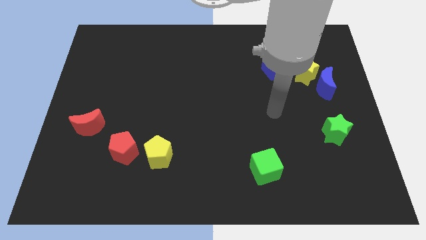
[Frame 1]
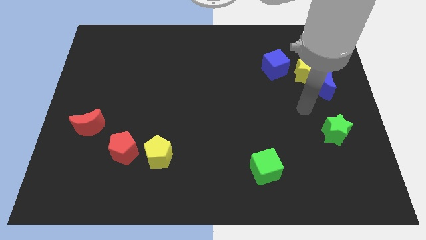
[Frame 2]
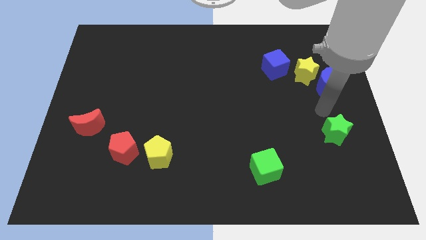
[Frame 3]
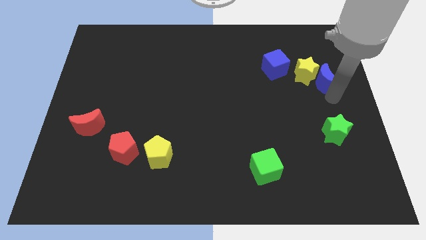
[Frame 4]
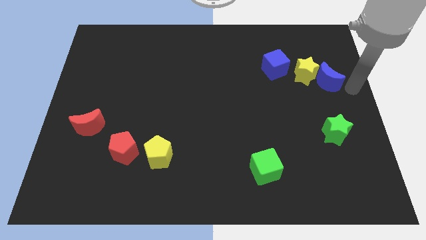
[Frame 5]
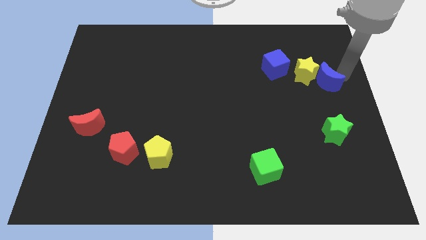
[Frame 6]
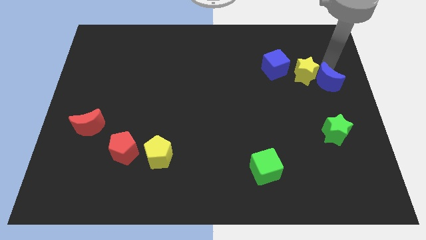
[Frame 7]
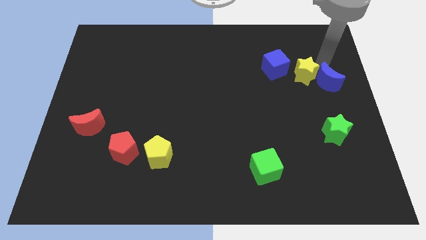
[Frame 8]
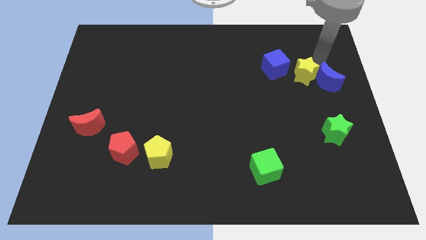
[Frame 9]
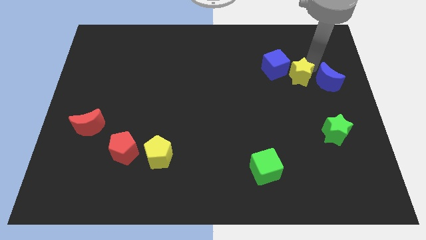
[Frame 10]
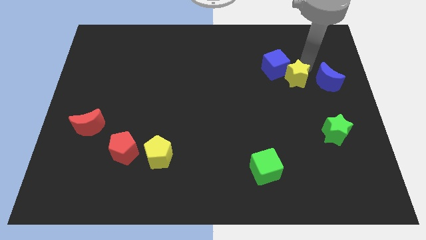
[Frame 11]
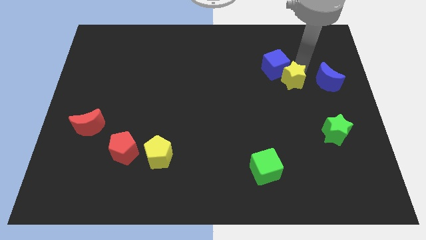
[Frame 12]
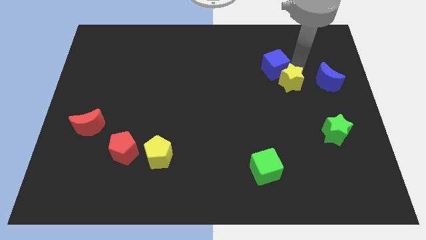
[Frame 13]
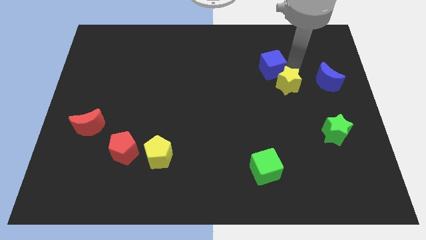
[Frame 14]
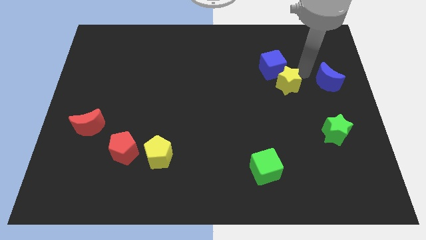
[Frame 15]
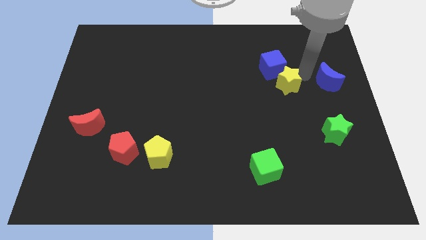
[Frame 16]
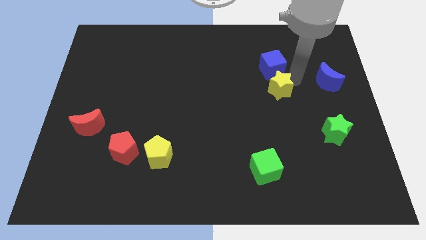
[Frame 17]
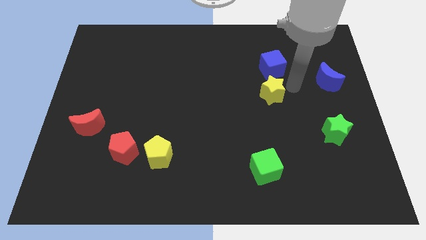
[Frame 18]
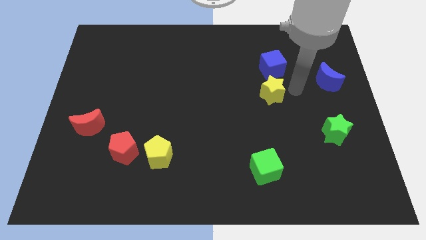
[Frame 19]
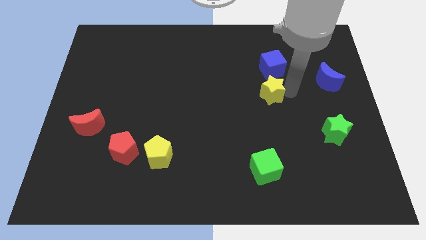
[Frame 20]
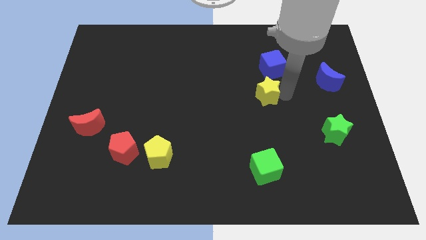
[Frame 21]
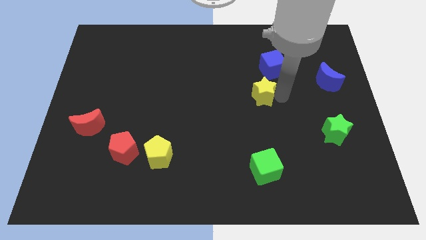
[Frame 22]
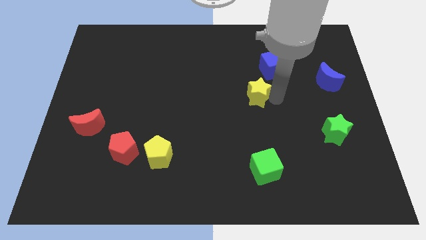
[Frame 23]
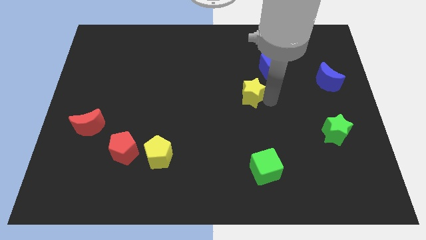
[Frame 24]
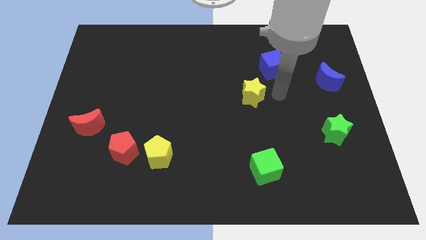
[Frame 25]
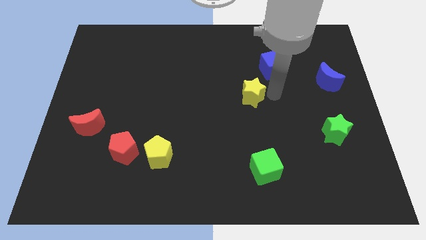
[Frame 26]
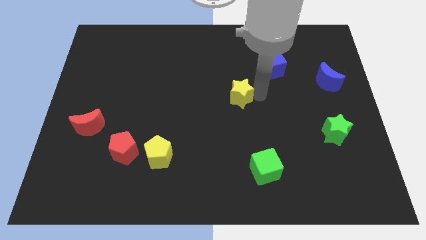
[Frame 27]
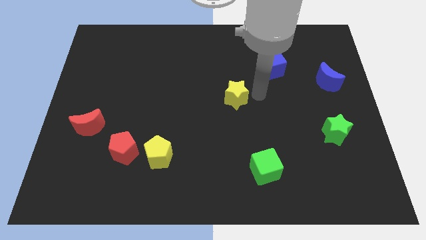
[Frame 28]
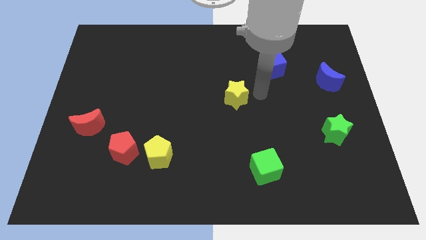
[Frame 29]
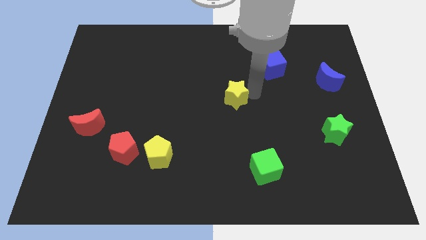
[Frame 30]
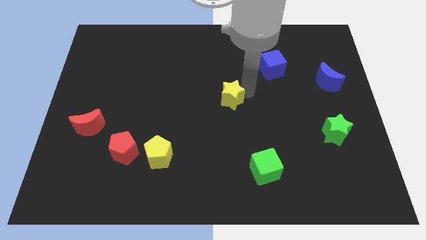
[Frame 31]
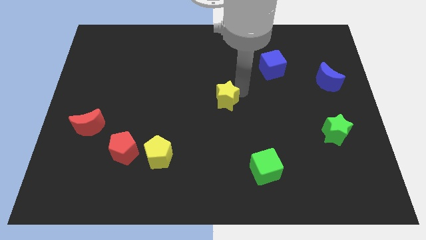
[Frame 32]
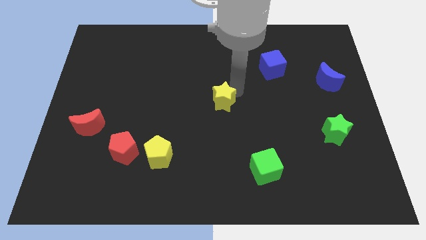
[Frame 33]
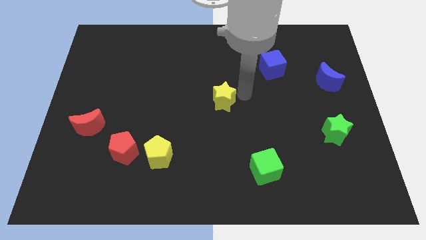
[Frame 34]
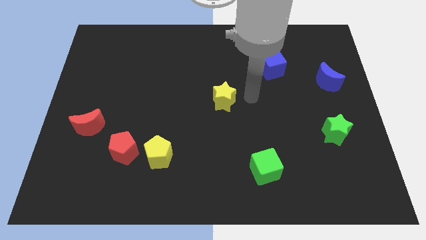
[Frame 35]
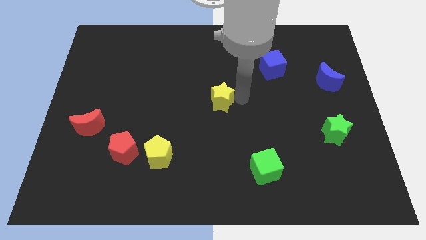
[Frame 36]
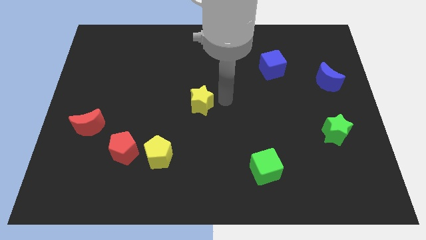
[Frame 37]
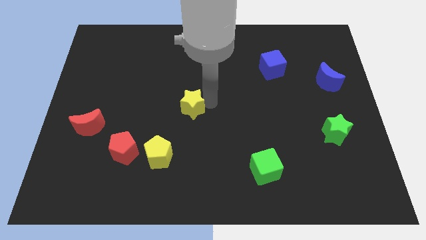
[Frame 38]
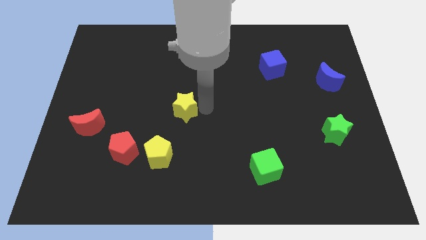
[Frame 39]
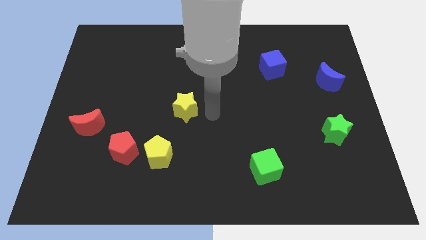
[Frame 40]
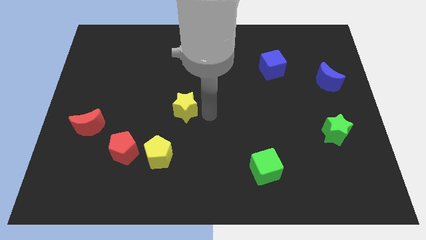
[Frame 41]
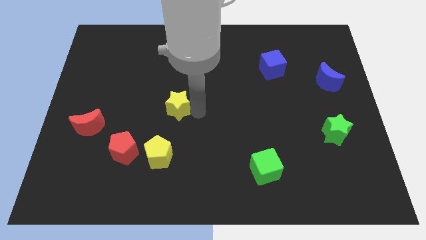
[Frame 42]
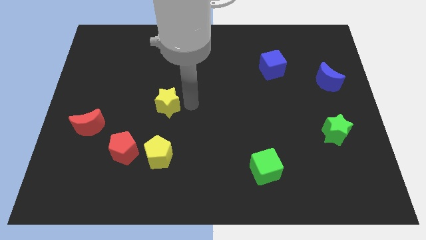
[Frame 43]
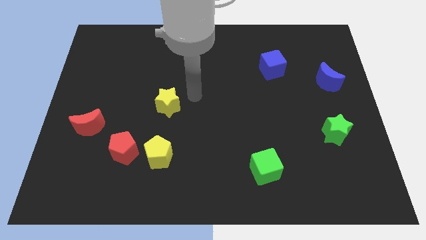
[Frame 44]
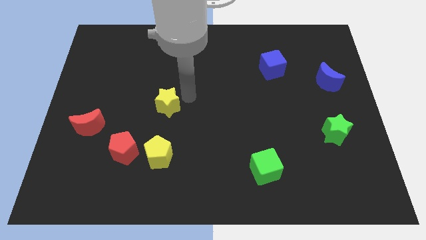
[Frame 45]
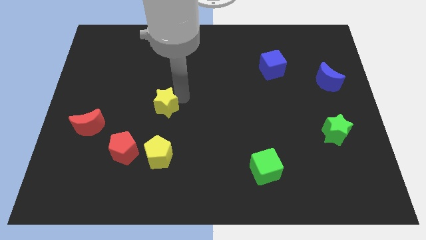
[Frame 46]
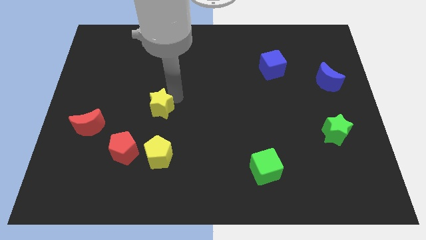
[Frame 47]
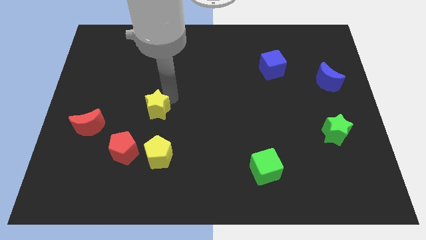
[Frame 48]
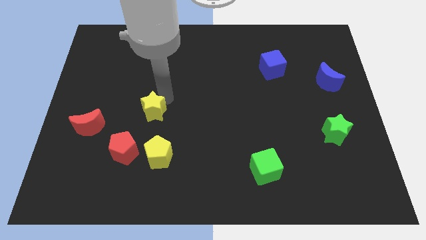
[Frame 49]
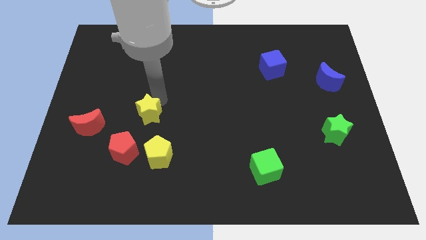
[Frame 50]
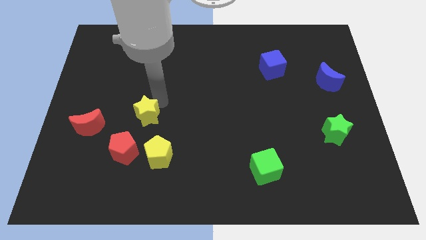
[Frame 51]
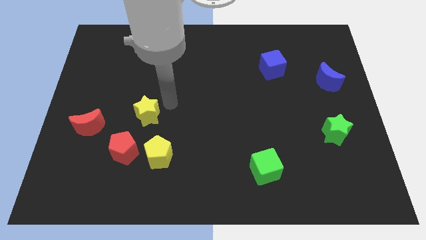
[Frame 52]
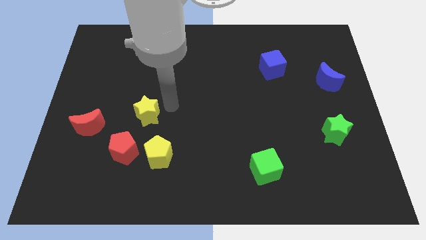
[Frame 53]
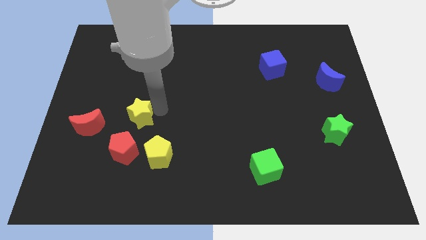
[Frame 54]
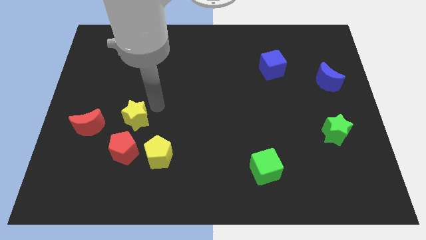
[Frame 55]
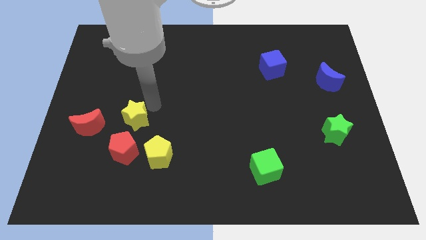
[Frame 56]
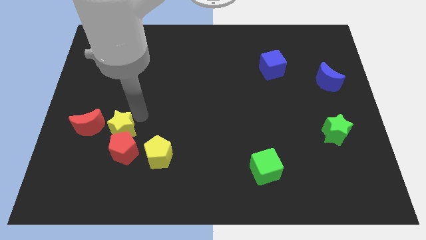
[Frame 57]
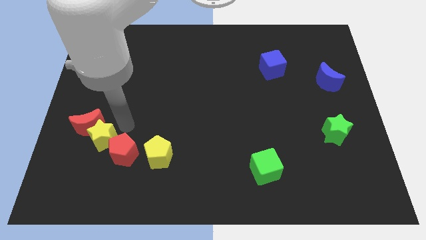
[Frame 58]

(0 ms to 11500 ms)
slide the yellow star to the bottom side of the red moon
